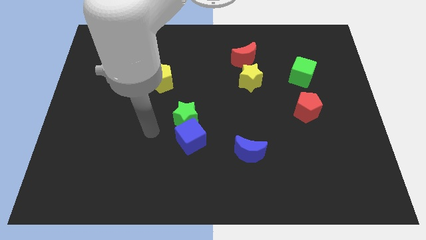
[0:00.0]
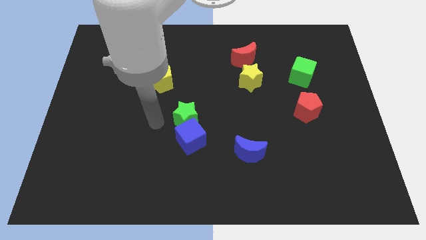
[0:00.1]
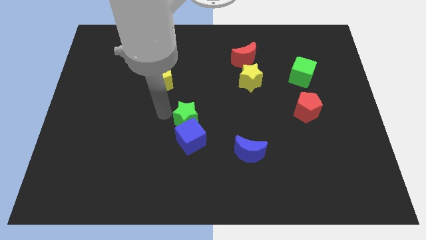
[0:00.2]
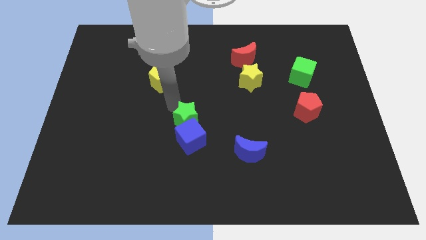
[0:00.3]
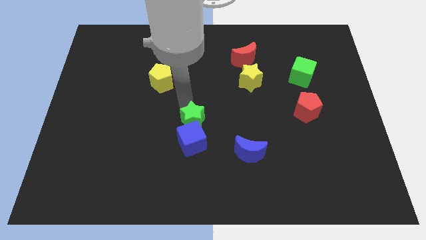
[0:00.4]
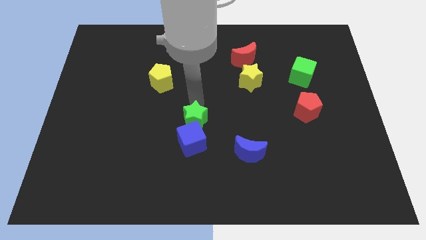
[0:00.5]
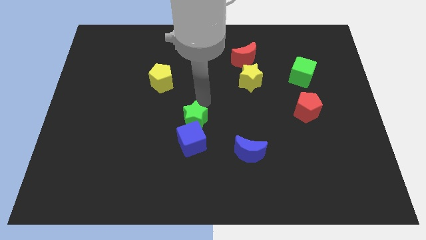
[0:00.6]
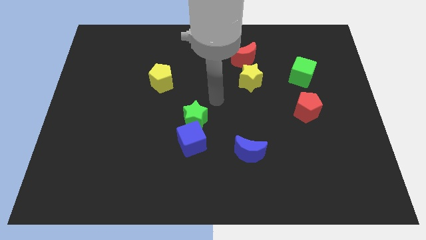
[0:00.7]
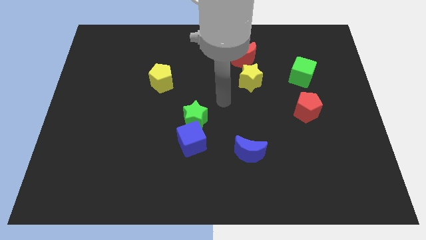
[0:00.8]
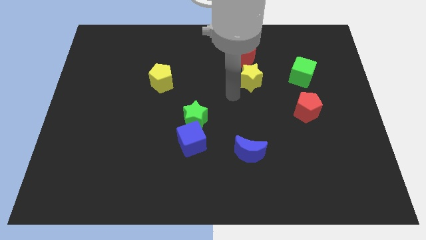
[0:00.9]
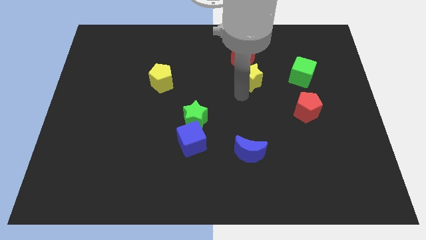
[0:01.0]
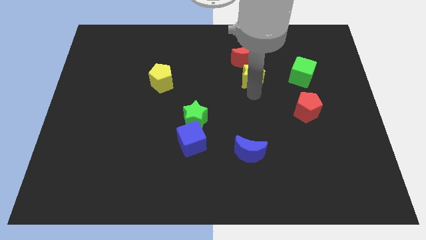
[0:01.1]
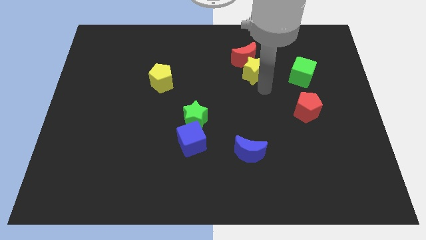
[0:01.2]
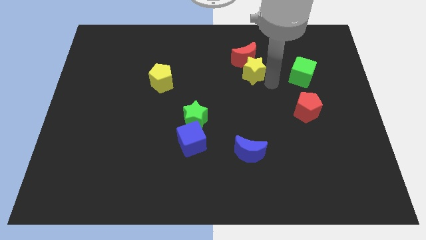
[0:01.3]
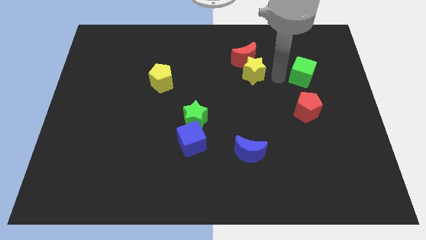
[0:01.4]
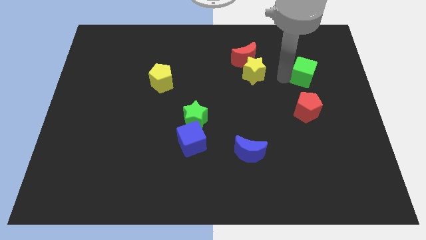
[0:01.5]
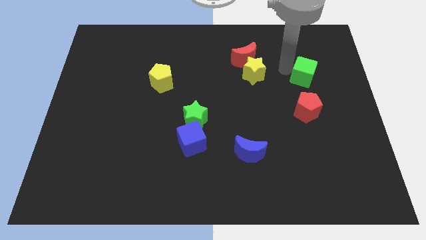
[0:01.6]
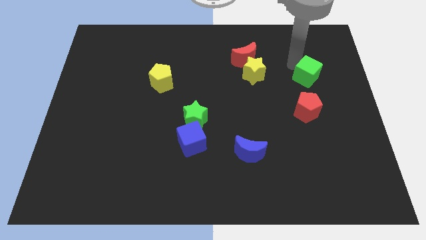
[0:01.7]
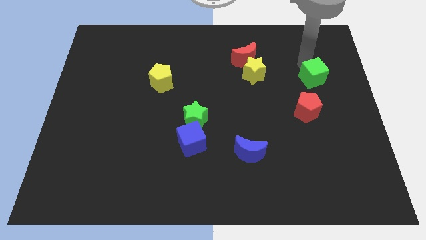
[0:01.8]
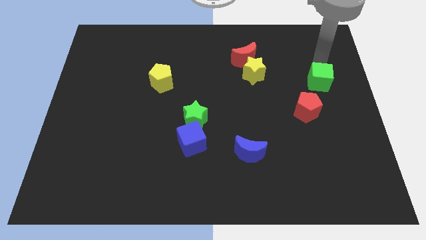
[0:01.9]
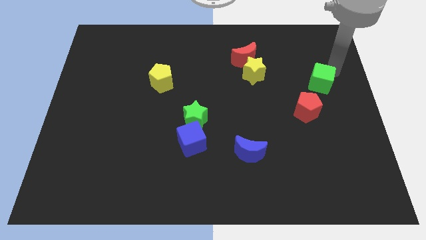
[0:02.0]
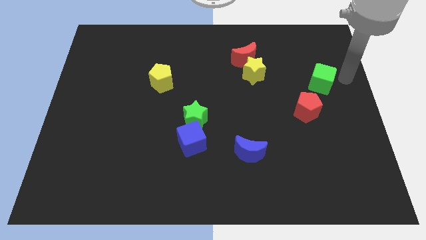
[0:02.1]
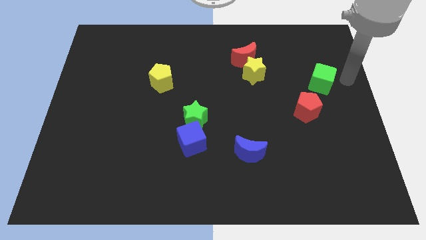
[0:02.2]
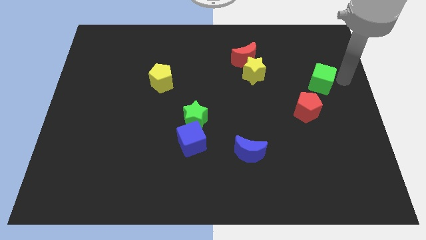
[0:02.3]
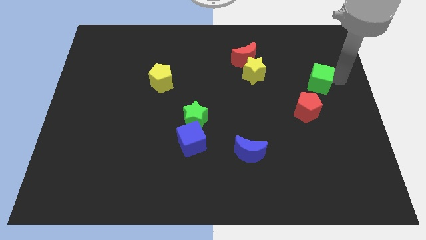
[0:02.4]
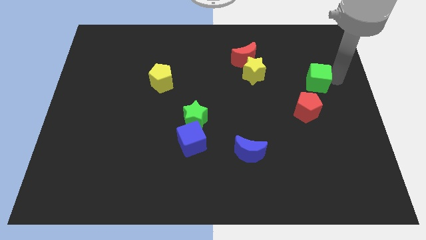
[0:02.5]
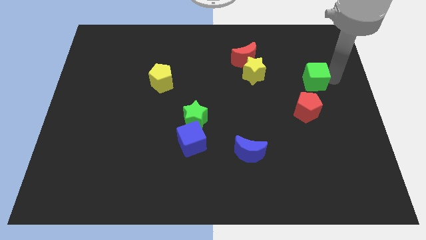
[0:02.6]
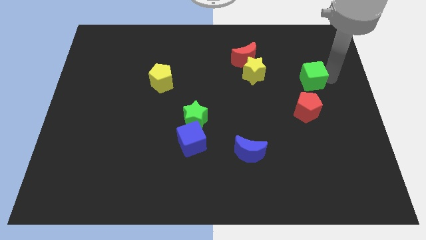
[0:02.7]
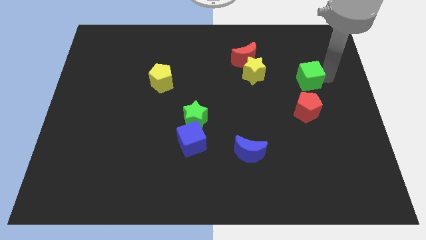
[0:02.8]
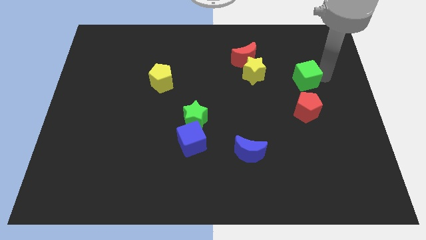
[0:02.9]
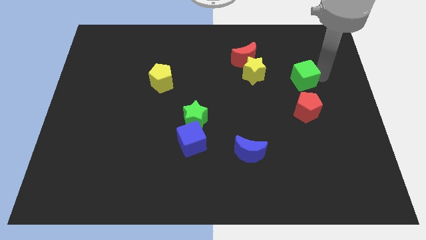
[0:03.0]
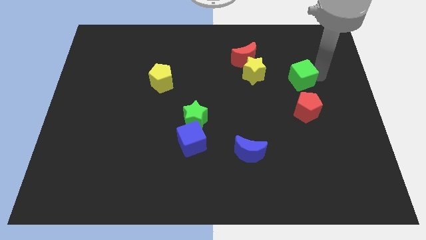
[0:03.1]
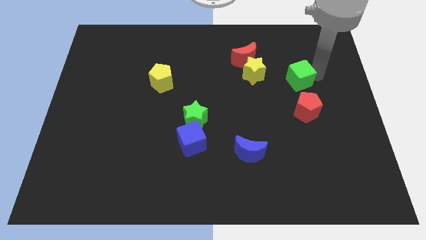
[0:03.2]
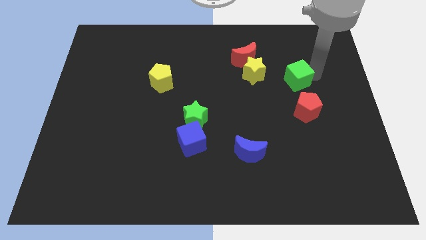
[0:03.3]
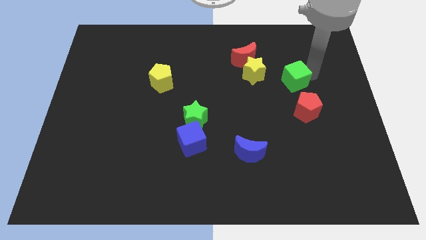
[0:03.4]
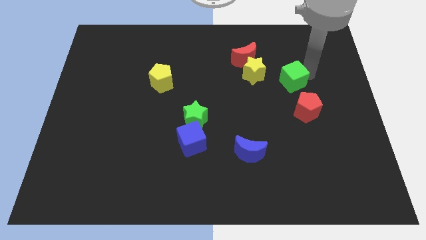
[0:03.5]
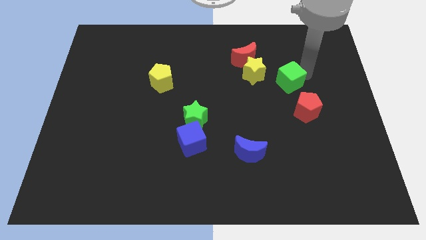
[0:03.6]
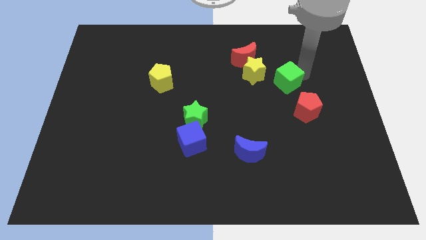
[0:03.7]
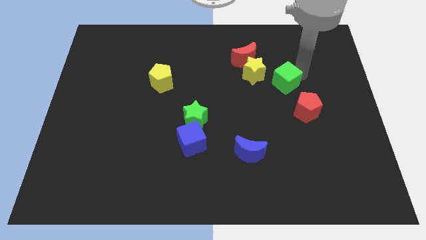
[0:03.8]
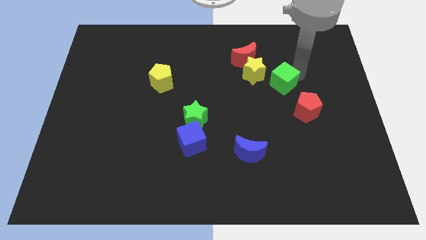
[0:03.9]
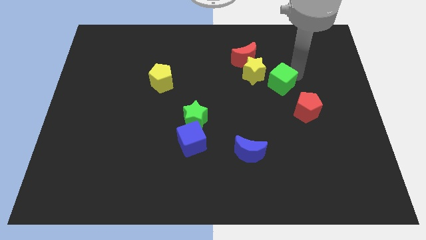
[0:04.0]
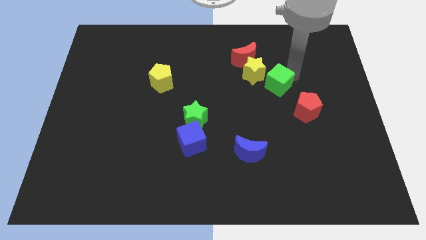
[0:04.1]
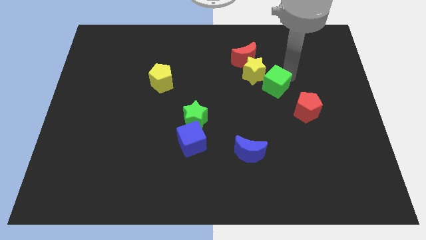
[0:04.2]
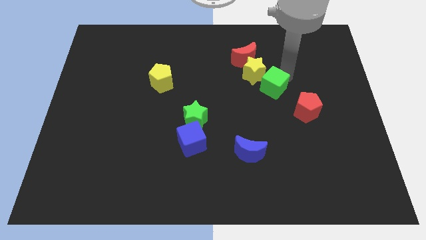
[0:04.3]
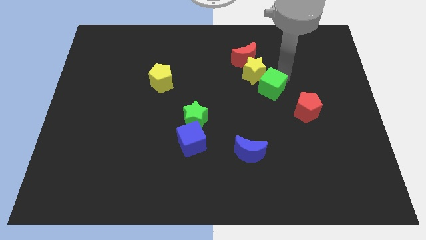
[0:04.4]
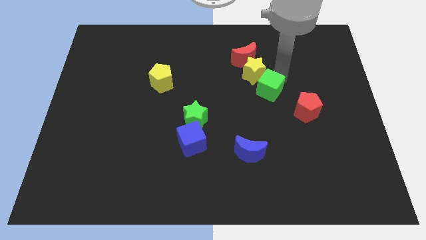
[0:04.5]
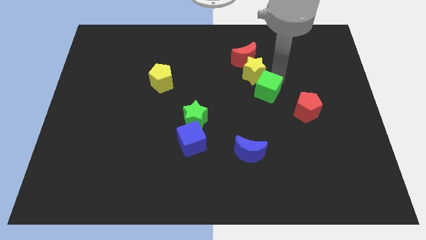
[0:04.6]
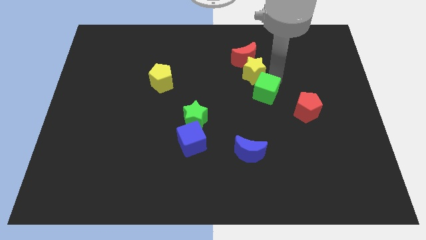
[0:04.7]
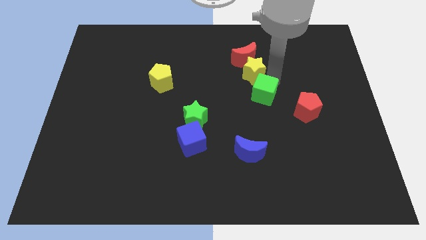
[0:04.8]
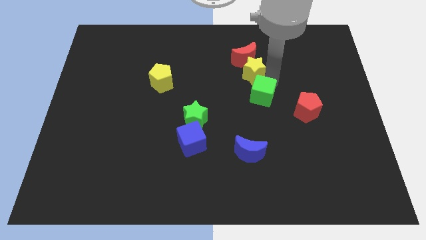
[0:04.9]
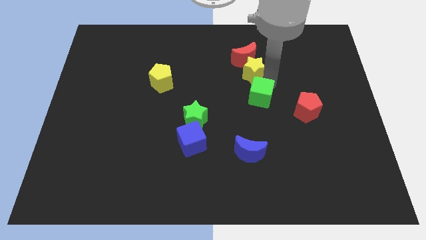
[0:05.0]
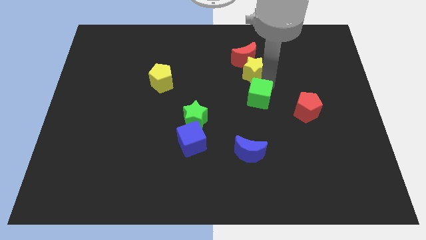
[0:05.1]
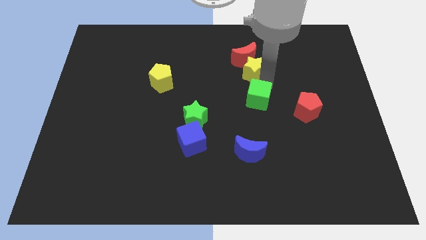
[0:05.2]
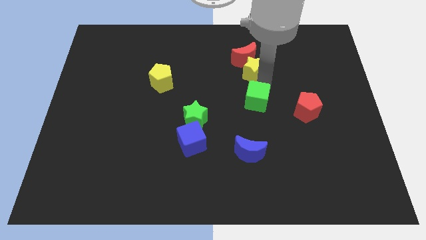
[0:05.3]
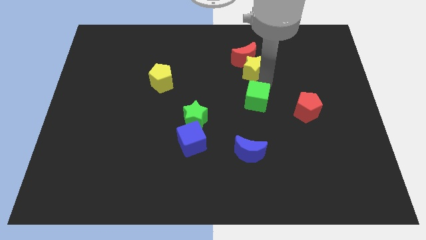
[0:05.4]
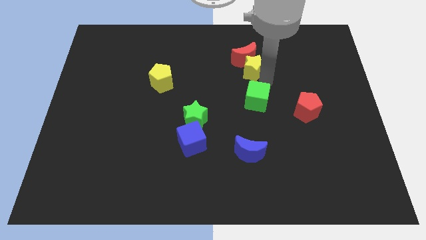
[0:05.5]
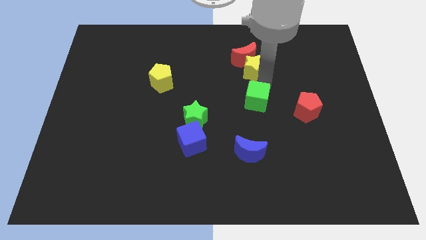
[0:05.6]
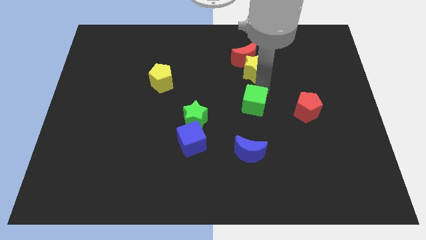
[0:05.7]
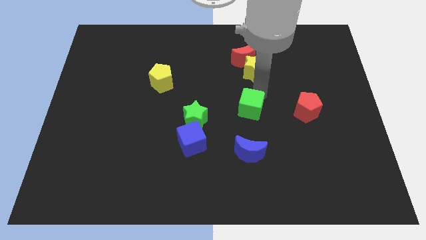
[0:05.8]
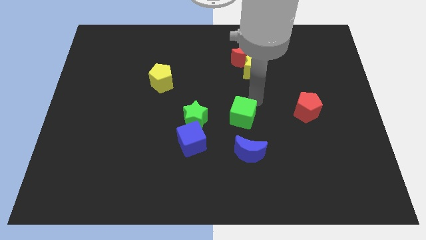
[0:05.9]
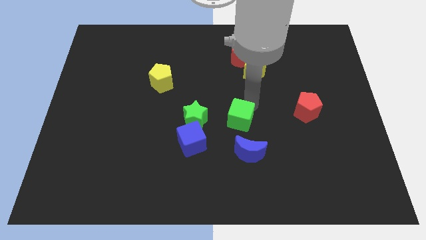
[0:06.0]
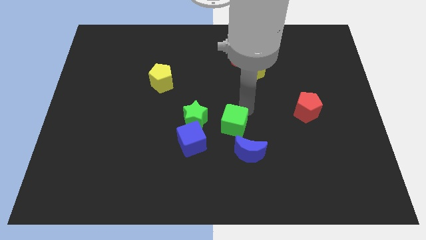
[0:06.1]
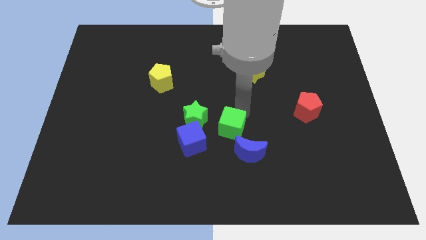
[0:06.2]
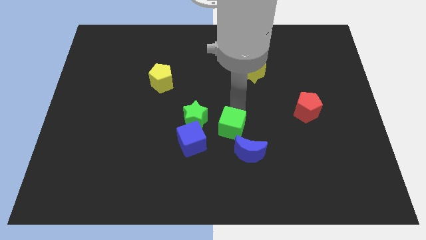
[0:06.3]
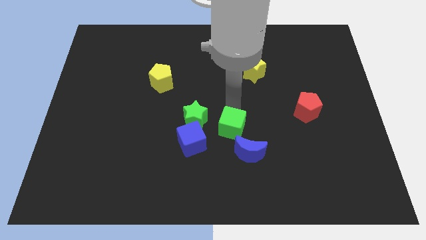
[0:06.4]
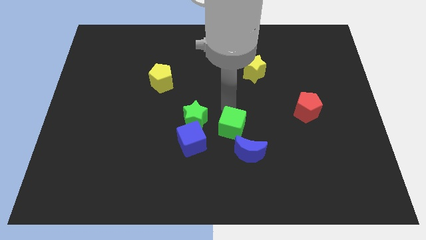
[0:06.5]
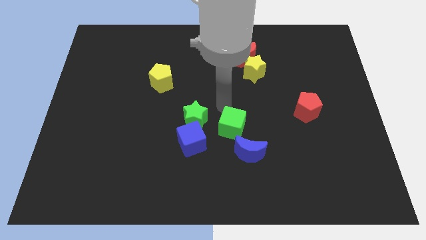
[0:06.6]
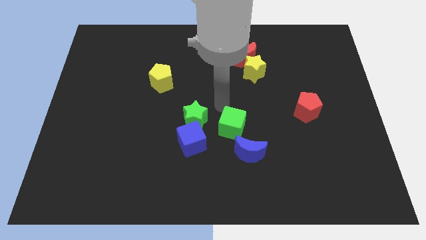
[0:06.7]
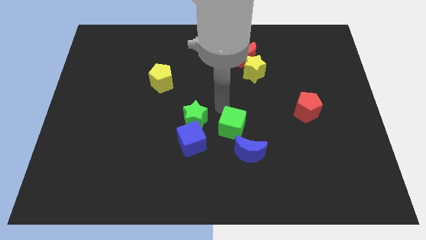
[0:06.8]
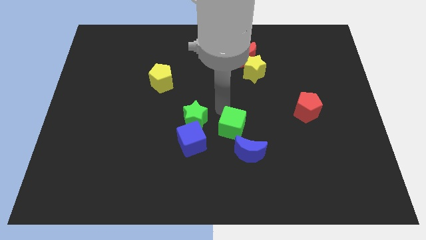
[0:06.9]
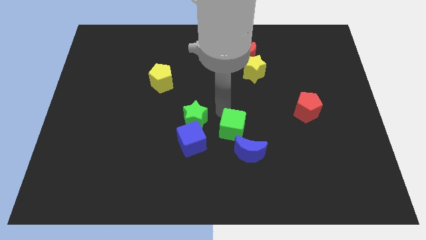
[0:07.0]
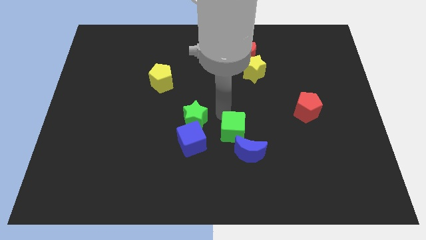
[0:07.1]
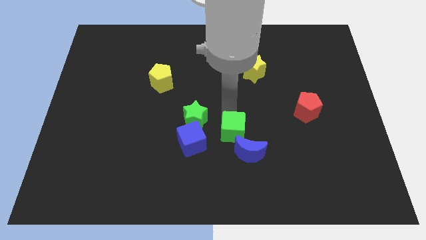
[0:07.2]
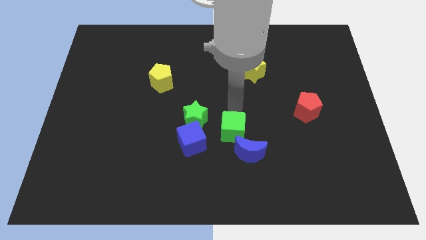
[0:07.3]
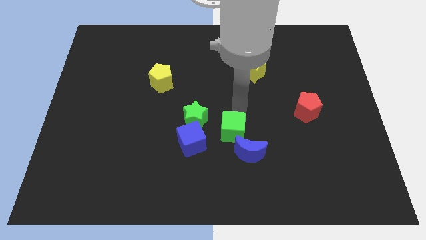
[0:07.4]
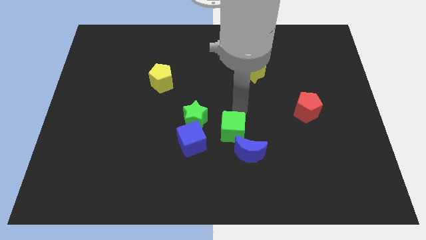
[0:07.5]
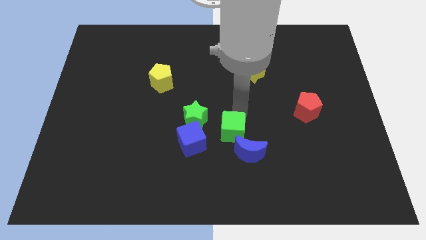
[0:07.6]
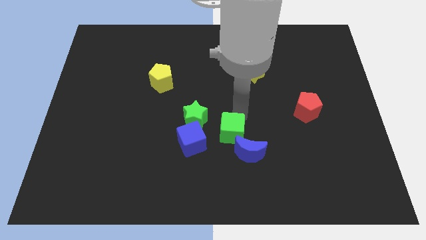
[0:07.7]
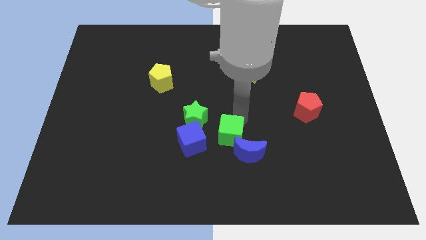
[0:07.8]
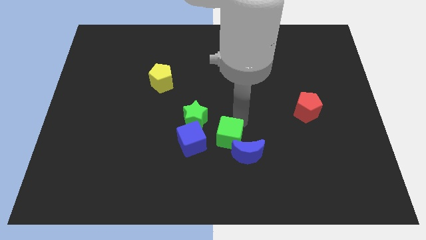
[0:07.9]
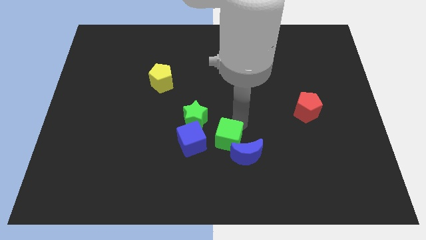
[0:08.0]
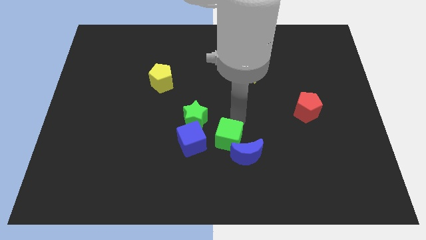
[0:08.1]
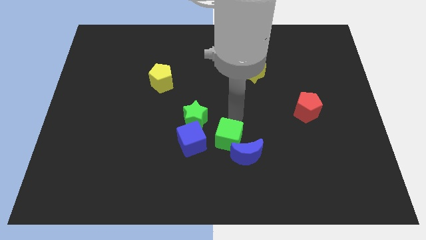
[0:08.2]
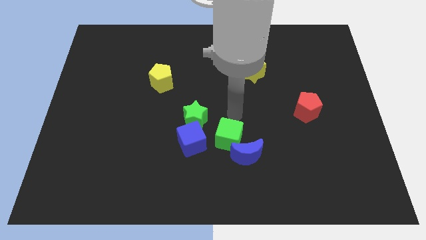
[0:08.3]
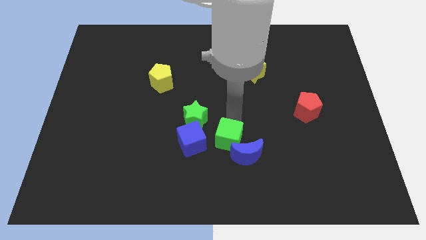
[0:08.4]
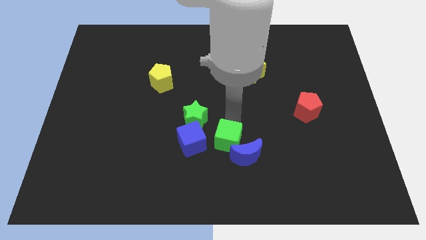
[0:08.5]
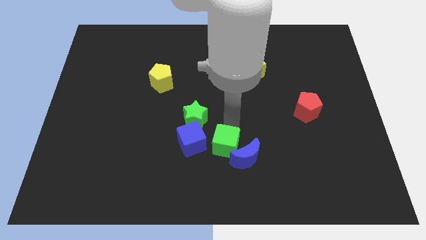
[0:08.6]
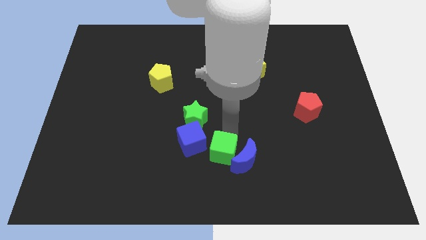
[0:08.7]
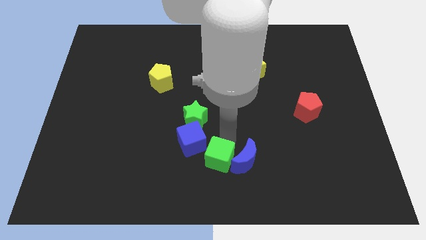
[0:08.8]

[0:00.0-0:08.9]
slide the green cube to the bottom side
